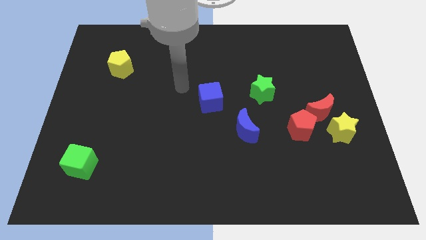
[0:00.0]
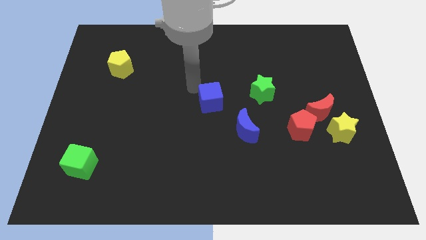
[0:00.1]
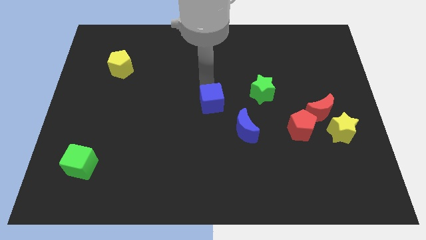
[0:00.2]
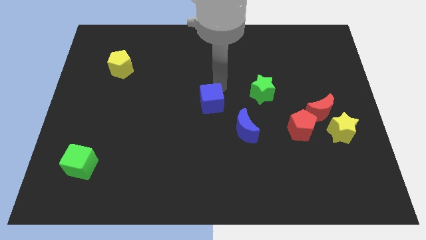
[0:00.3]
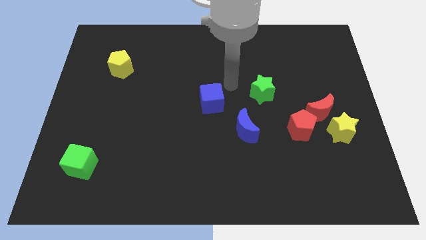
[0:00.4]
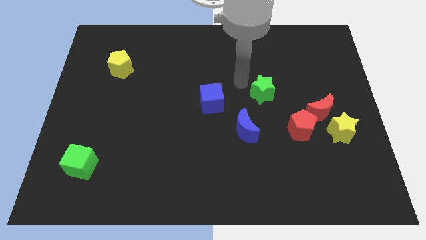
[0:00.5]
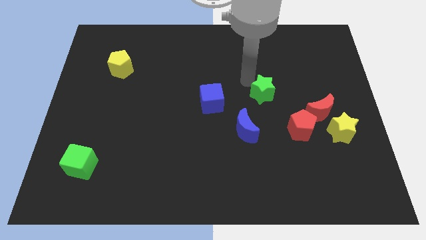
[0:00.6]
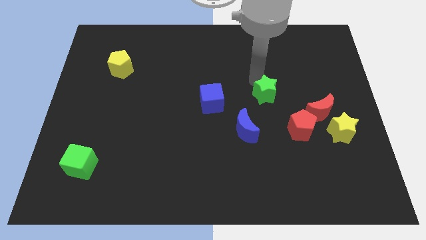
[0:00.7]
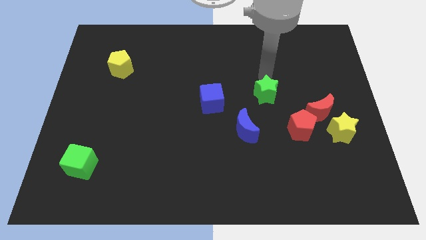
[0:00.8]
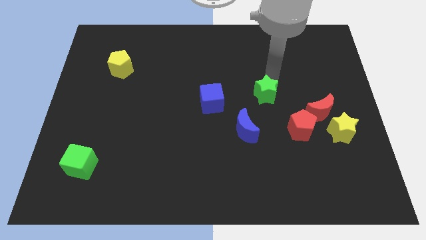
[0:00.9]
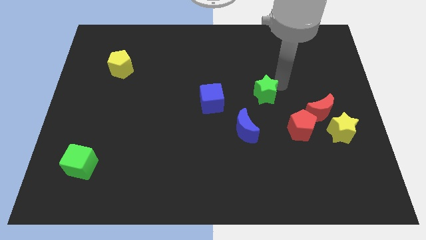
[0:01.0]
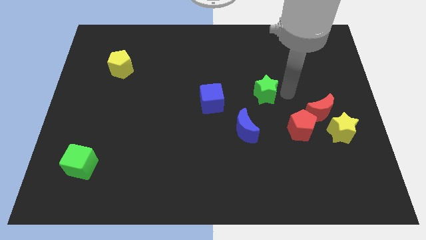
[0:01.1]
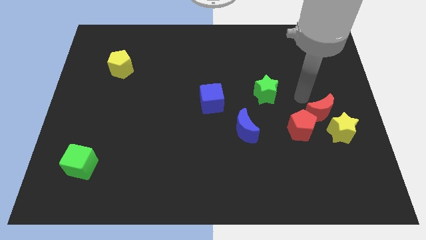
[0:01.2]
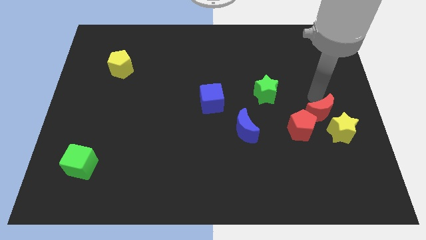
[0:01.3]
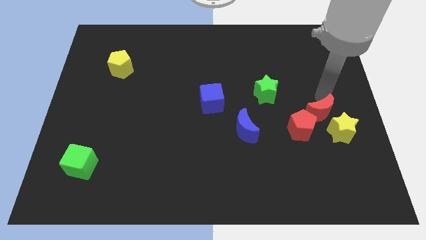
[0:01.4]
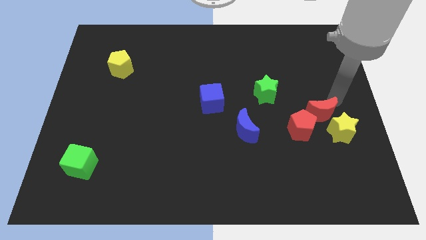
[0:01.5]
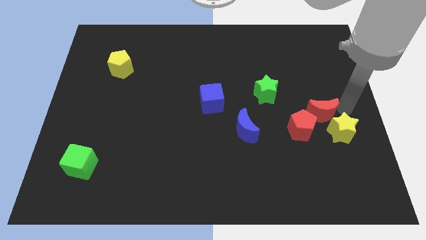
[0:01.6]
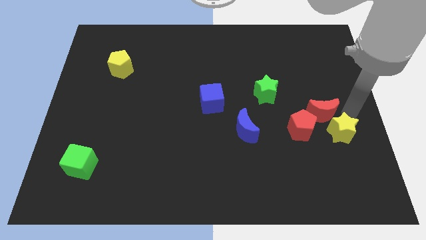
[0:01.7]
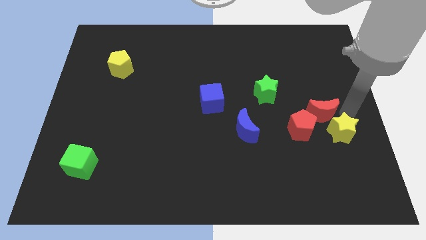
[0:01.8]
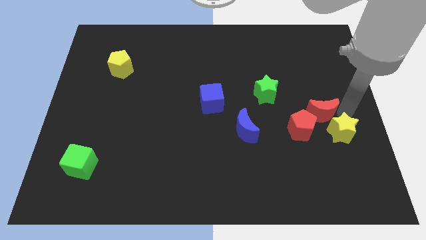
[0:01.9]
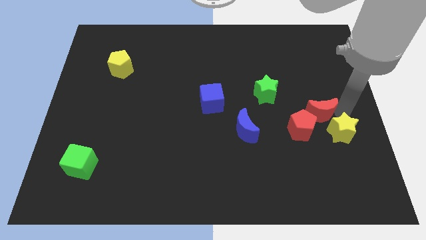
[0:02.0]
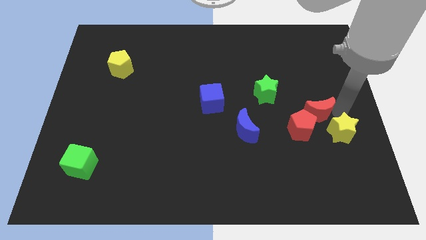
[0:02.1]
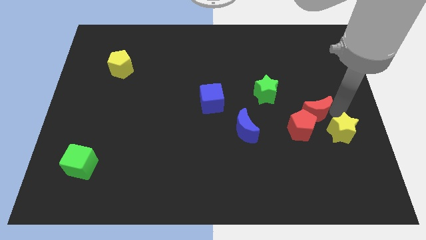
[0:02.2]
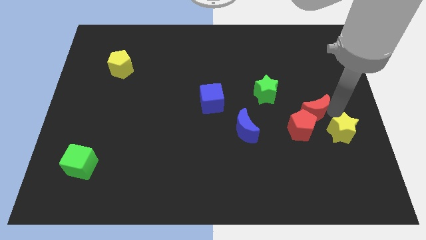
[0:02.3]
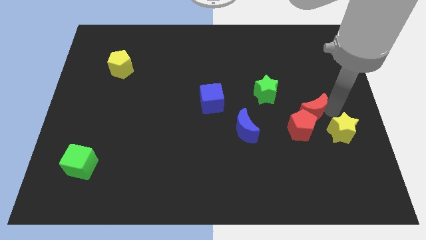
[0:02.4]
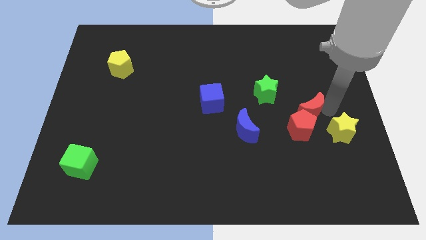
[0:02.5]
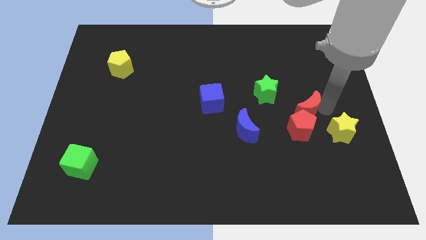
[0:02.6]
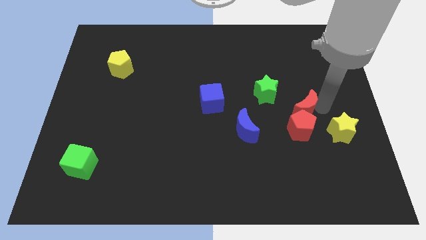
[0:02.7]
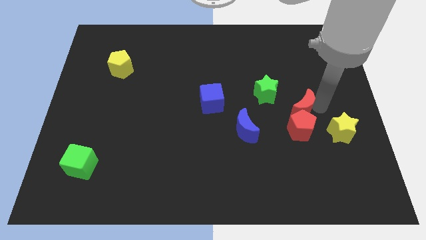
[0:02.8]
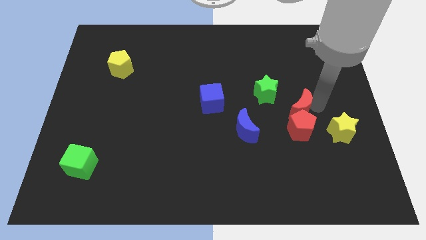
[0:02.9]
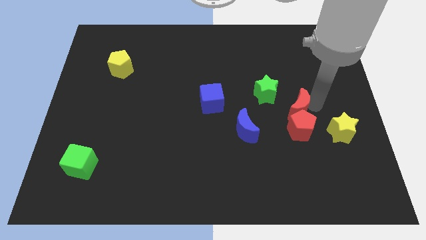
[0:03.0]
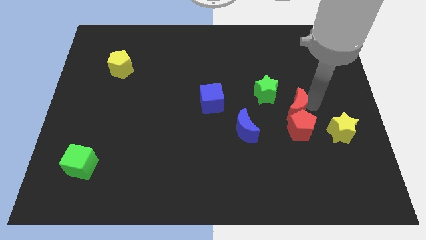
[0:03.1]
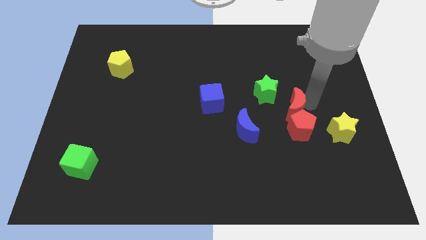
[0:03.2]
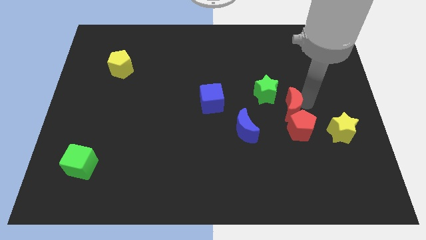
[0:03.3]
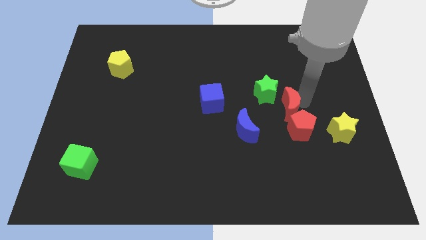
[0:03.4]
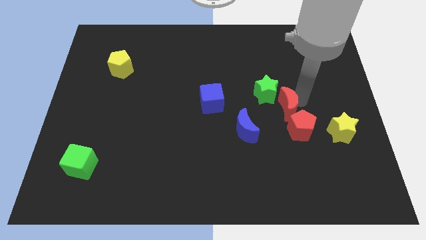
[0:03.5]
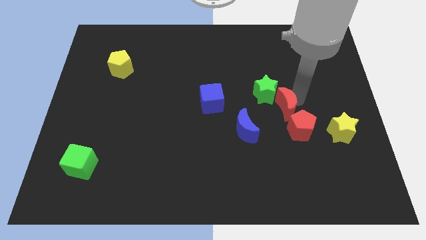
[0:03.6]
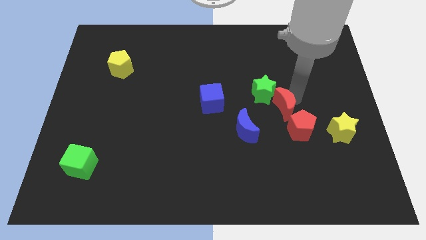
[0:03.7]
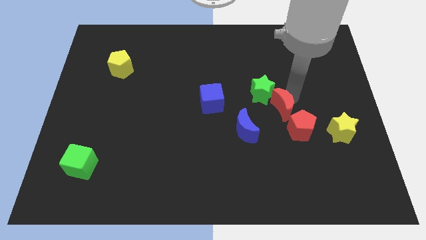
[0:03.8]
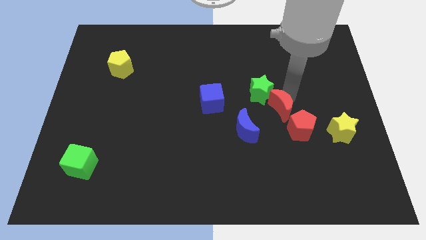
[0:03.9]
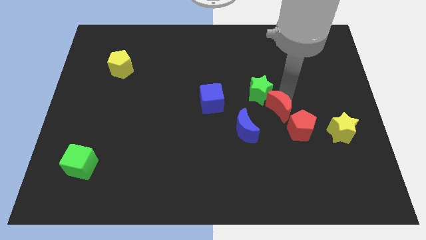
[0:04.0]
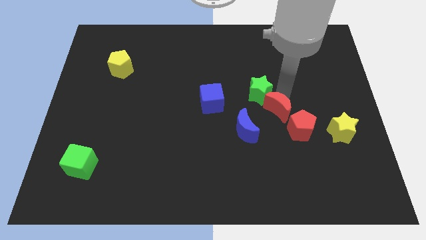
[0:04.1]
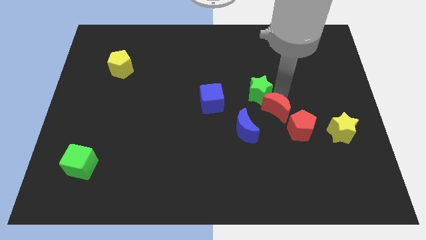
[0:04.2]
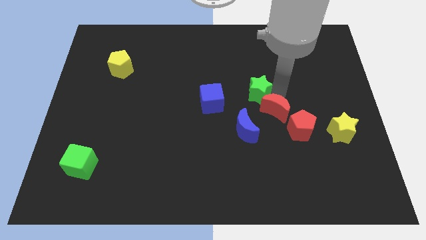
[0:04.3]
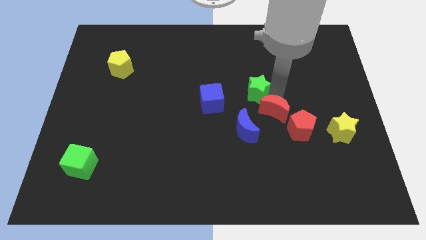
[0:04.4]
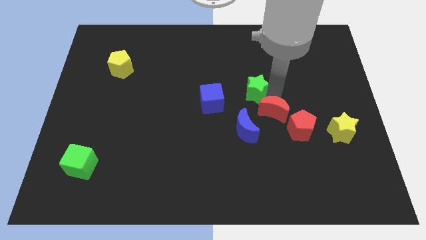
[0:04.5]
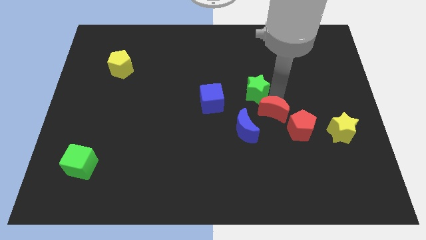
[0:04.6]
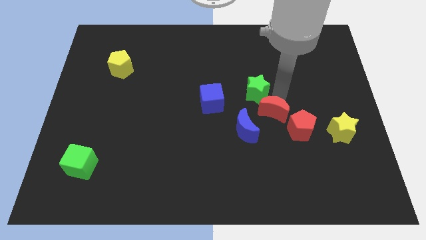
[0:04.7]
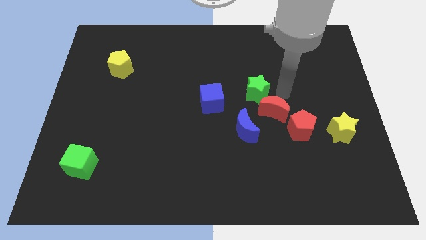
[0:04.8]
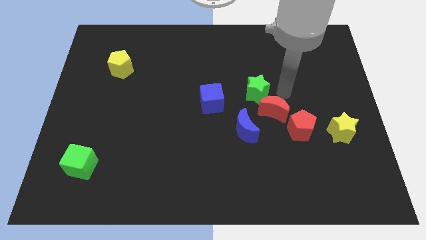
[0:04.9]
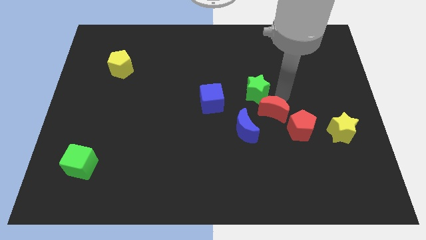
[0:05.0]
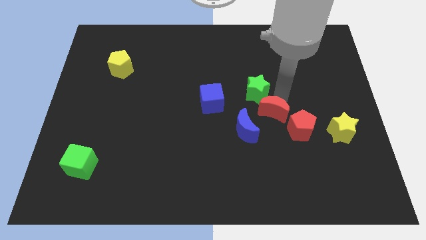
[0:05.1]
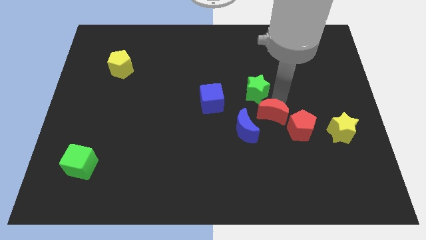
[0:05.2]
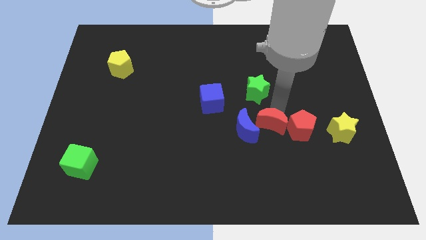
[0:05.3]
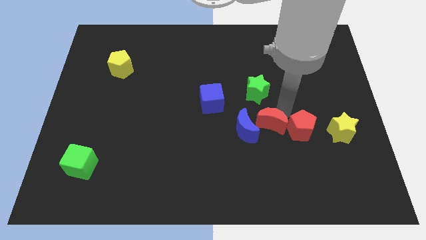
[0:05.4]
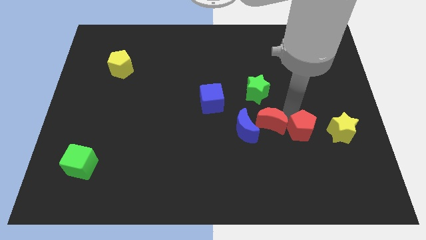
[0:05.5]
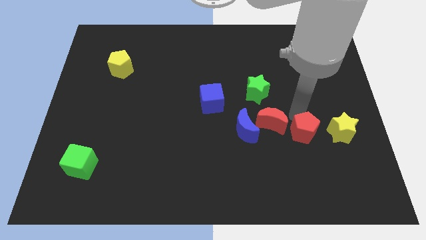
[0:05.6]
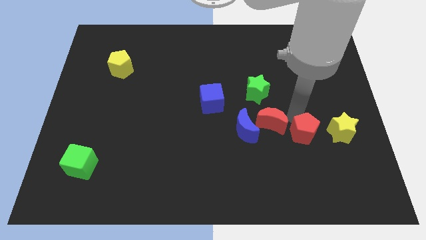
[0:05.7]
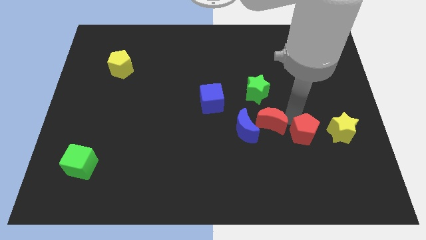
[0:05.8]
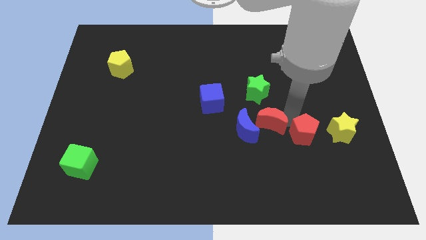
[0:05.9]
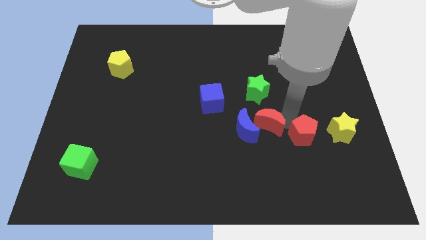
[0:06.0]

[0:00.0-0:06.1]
move the red moon close to the blue moon

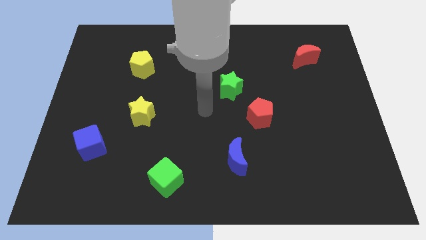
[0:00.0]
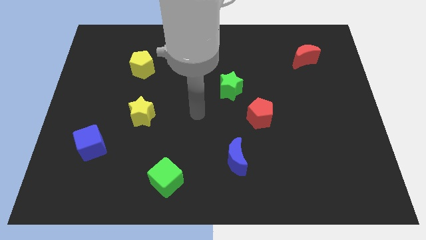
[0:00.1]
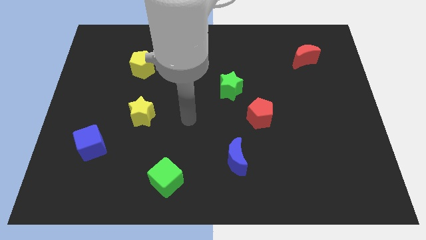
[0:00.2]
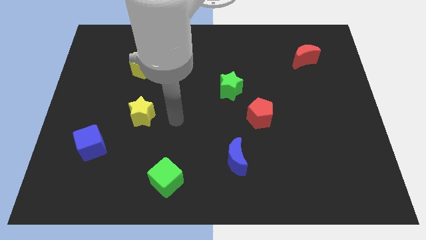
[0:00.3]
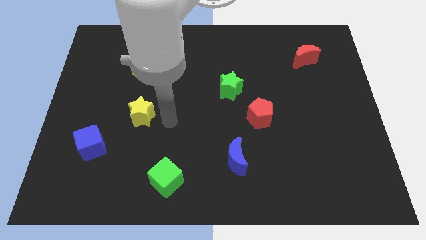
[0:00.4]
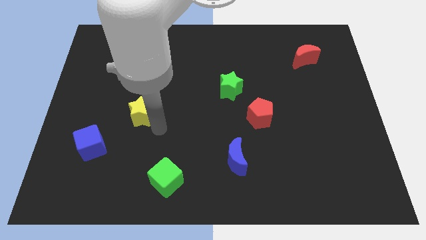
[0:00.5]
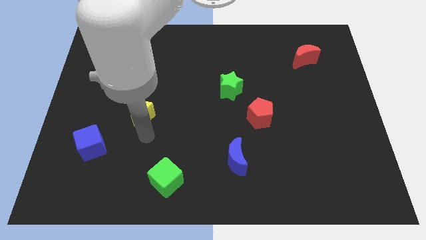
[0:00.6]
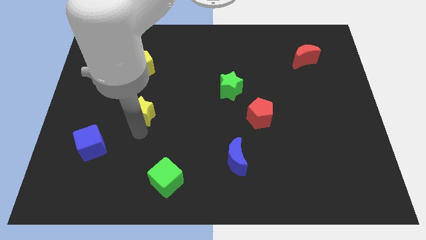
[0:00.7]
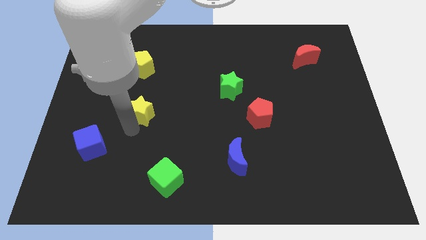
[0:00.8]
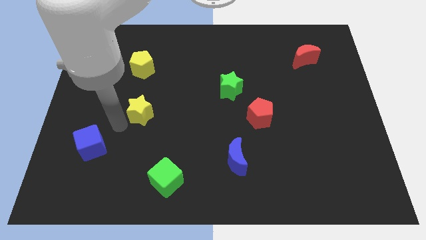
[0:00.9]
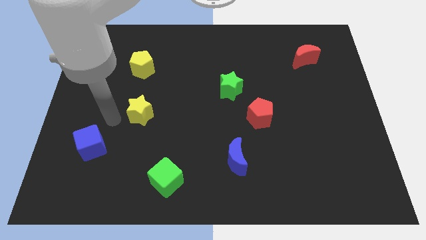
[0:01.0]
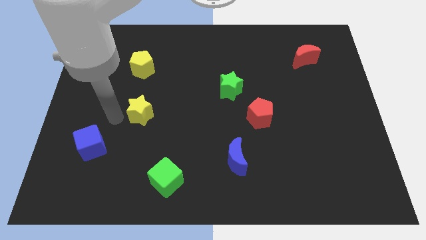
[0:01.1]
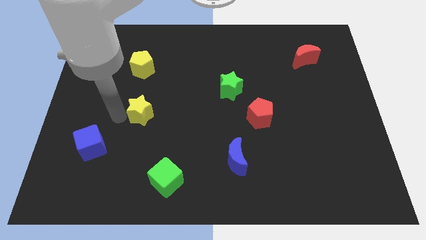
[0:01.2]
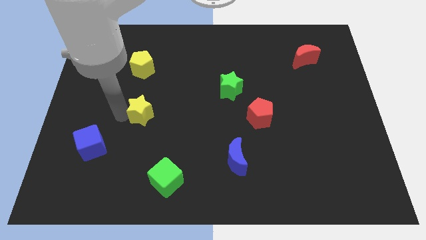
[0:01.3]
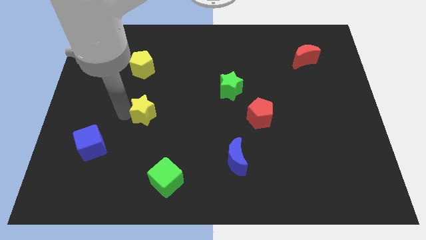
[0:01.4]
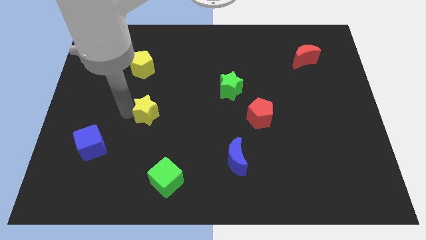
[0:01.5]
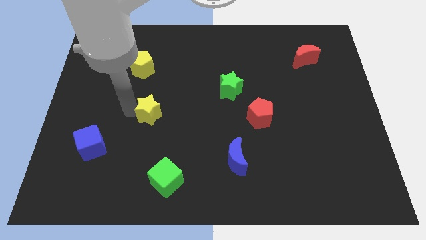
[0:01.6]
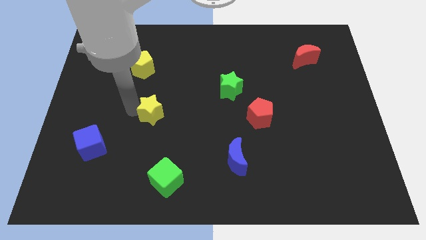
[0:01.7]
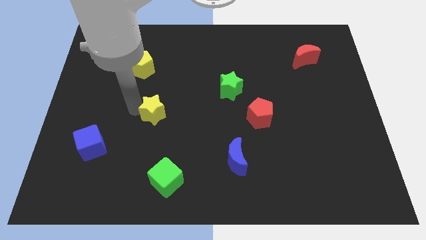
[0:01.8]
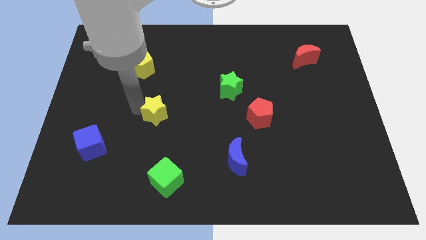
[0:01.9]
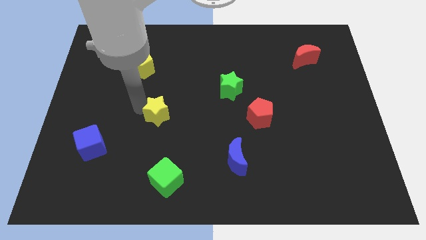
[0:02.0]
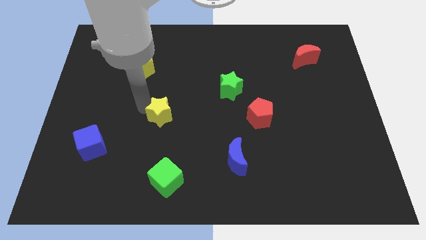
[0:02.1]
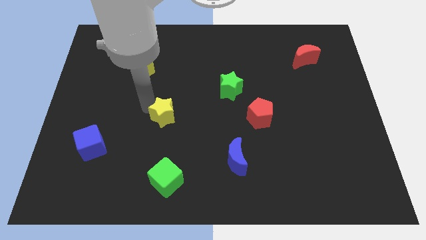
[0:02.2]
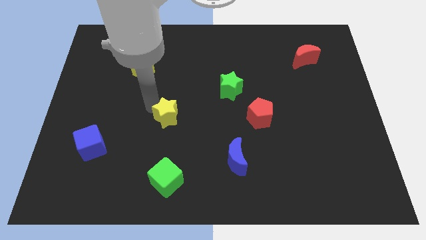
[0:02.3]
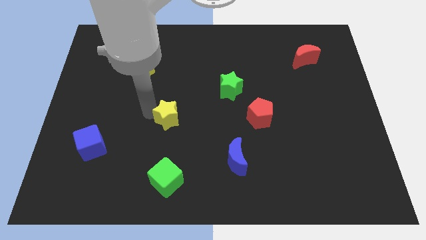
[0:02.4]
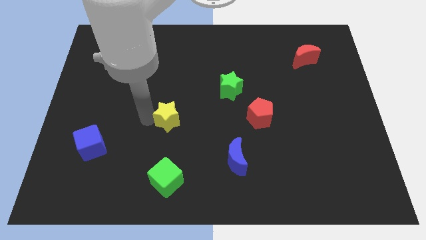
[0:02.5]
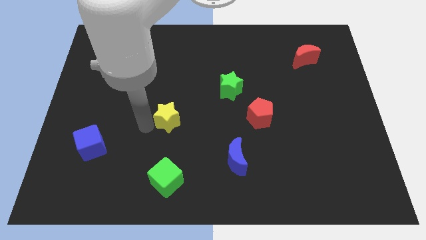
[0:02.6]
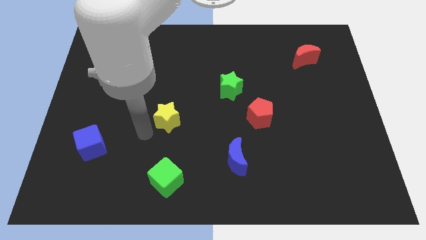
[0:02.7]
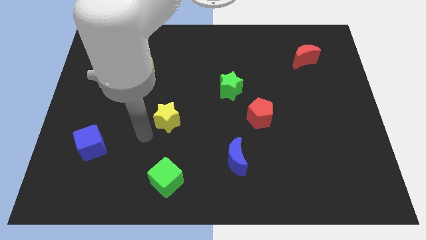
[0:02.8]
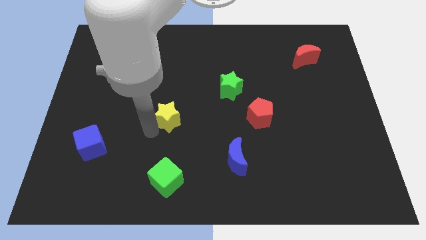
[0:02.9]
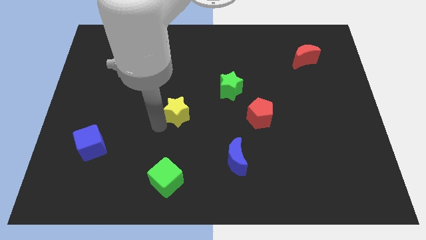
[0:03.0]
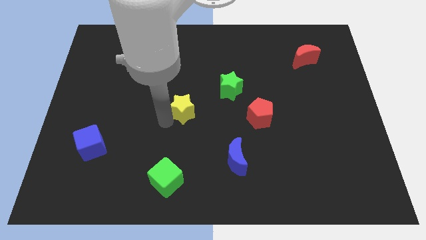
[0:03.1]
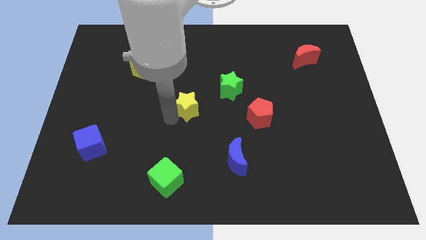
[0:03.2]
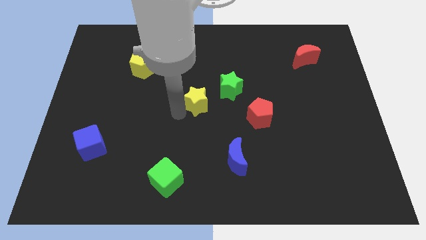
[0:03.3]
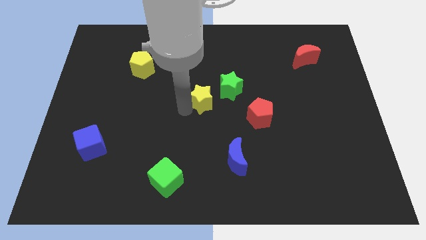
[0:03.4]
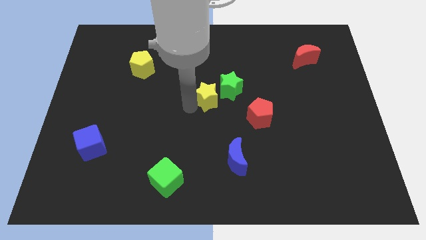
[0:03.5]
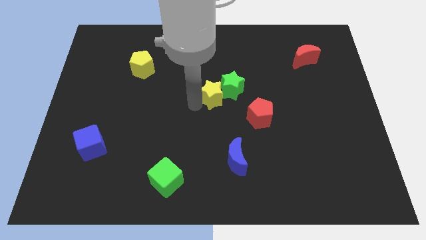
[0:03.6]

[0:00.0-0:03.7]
slide the yellow star to the green star
